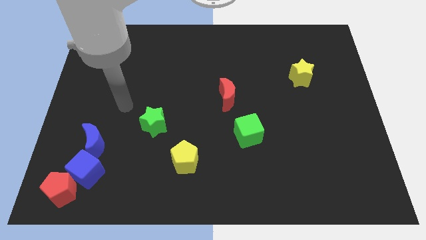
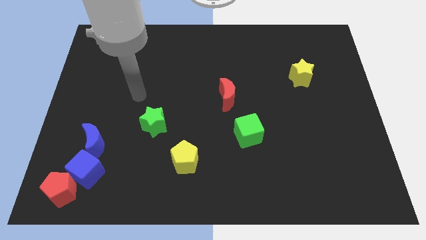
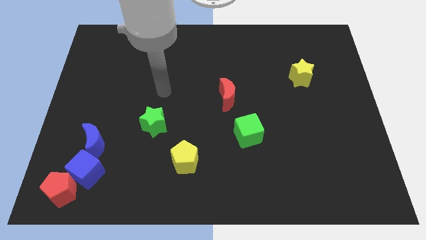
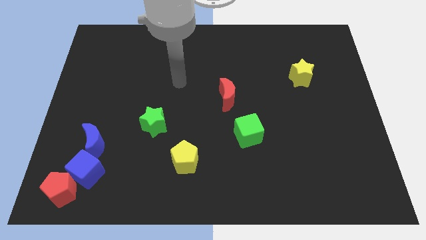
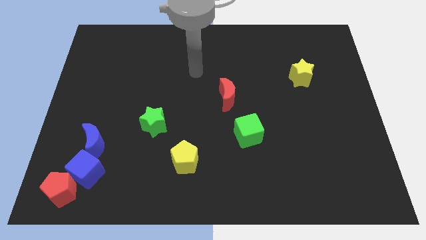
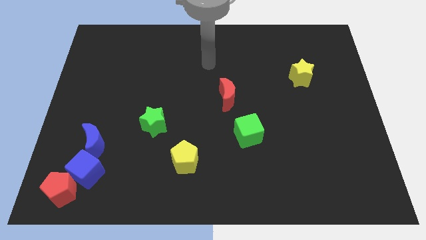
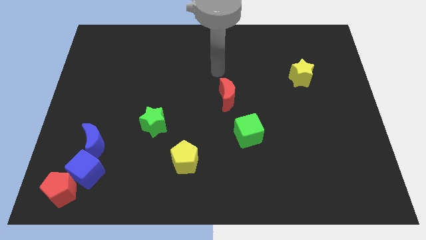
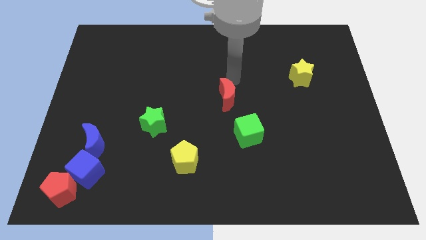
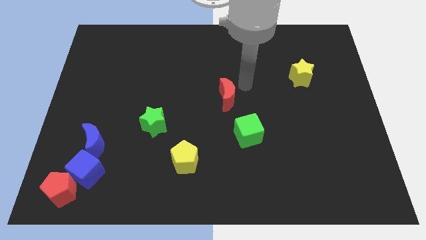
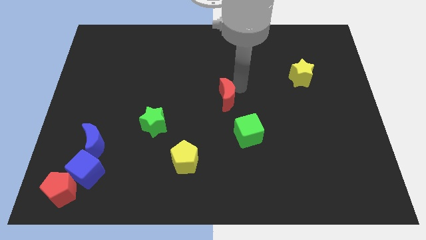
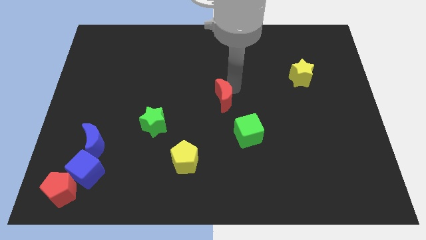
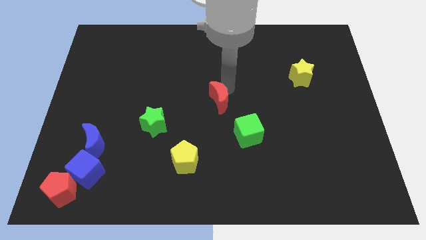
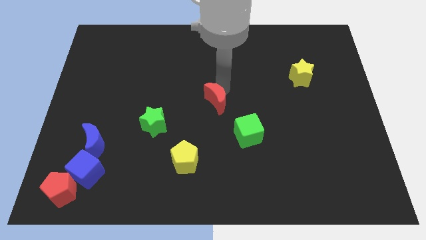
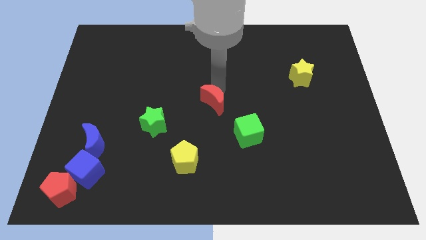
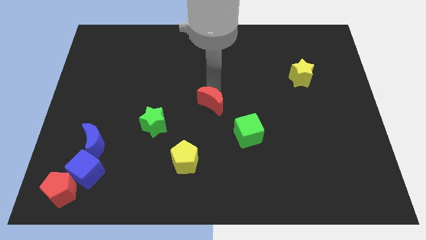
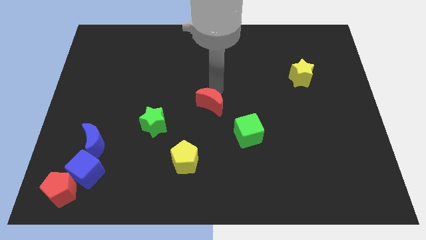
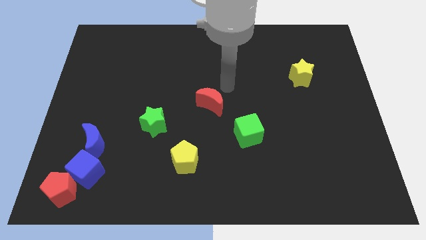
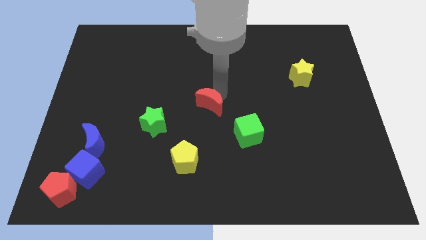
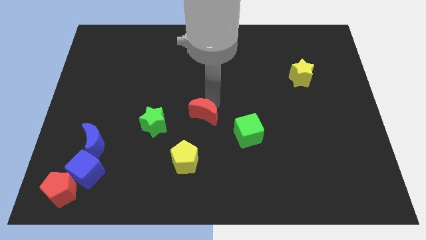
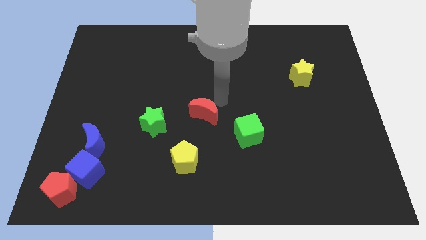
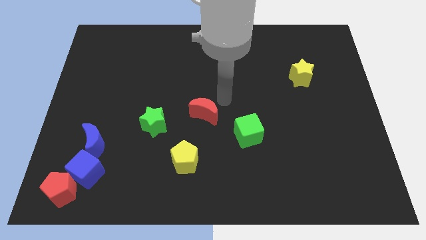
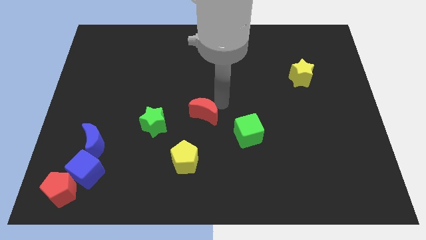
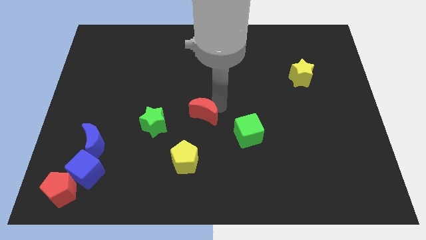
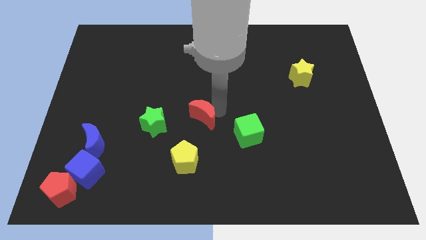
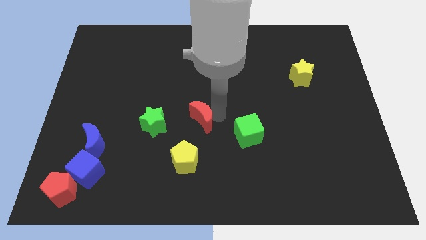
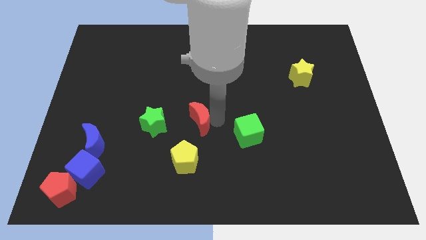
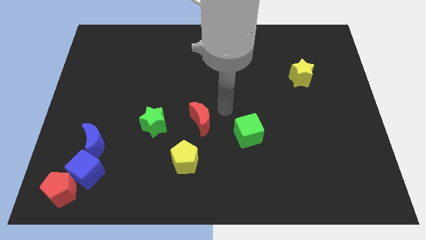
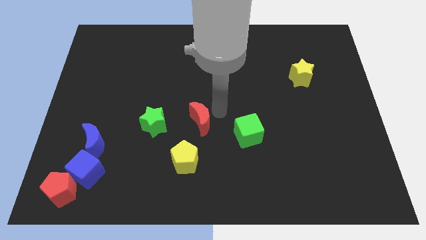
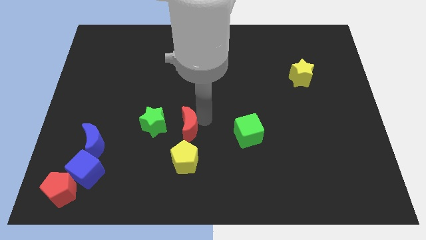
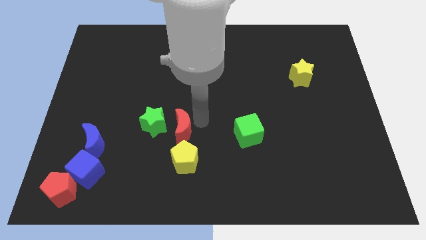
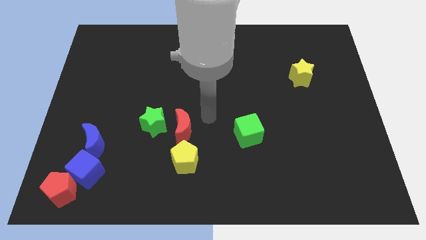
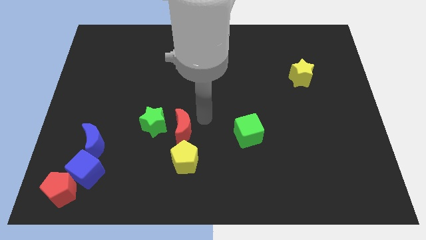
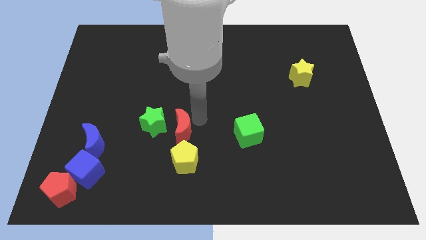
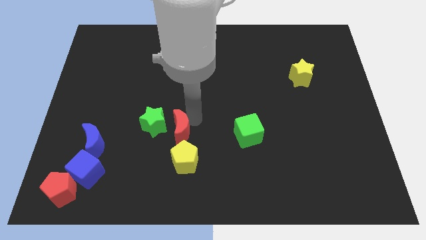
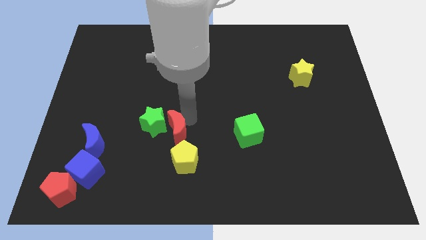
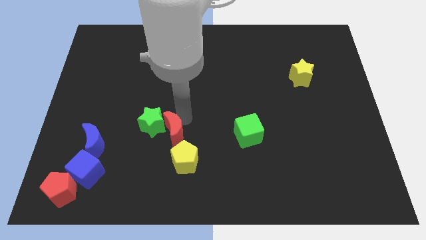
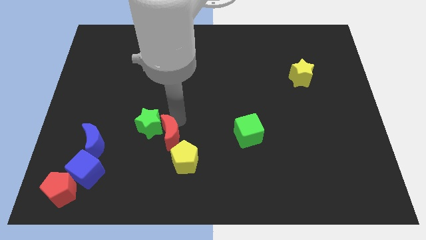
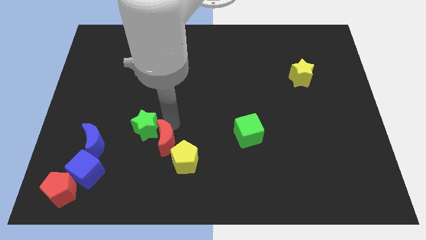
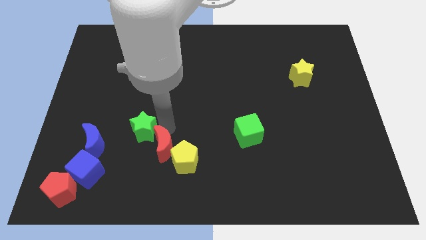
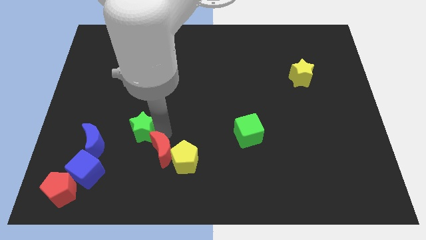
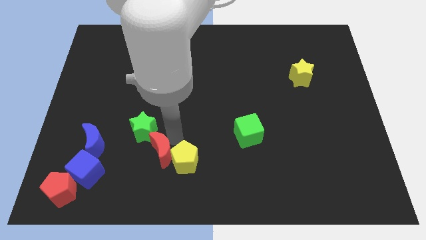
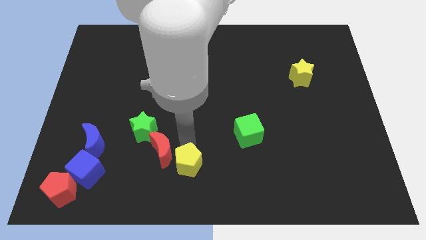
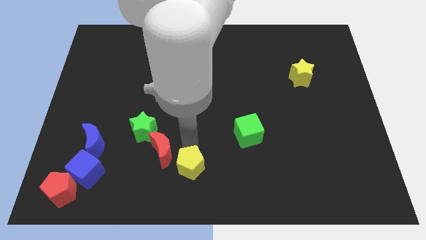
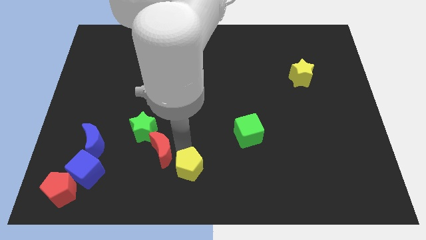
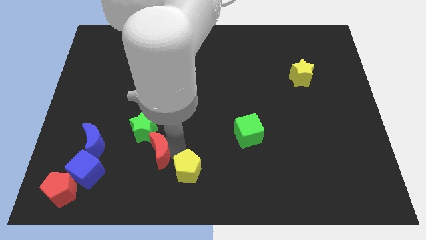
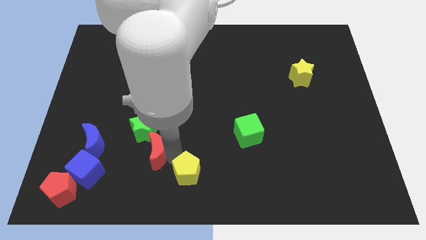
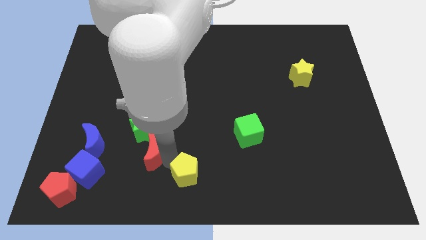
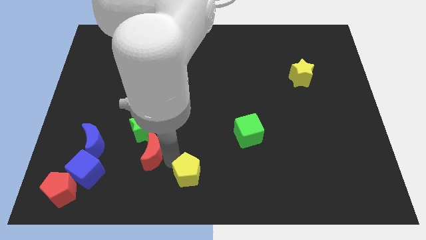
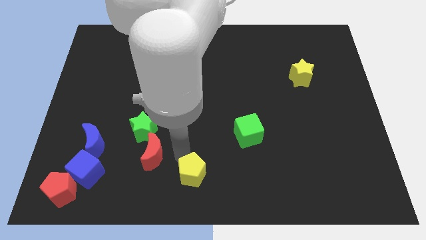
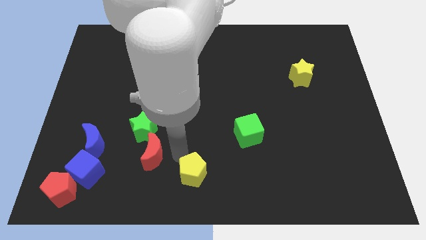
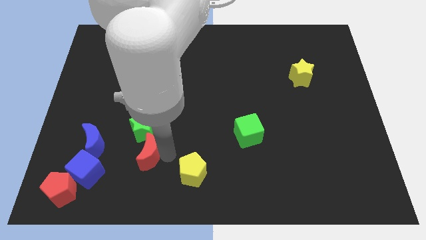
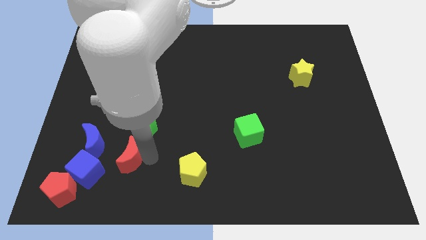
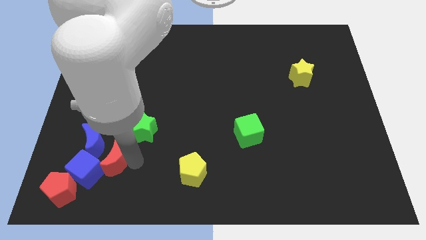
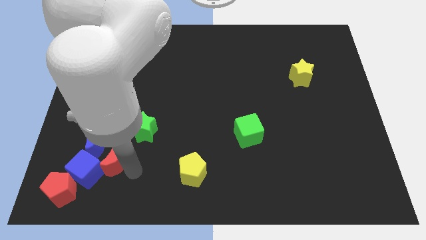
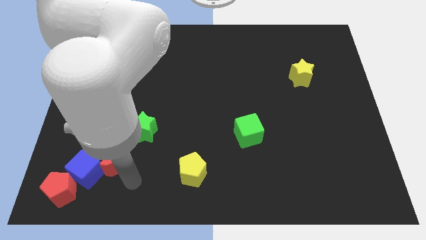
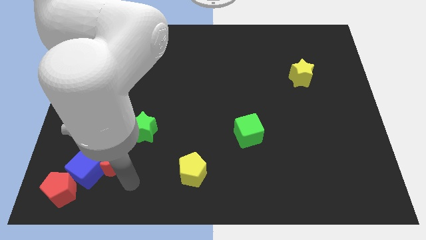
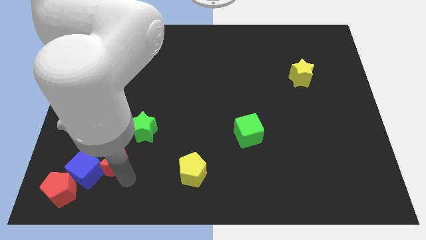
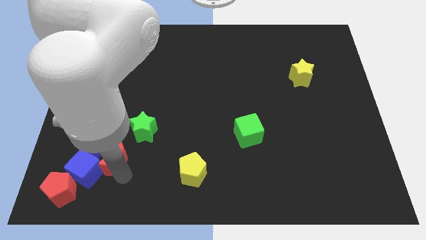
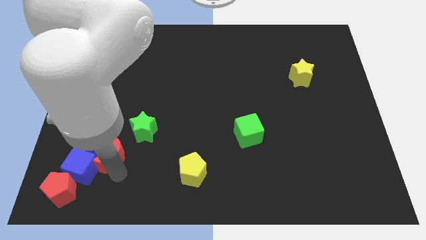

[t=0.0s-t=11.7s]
push the red moon close to the blue moon

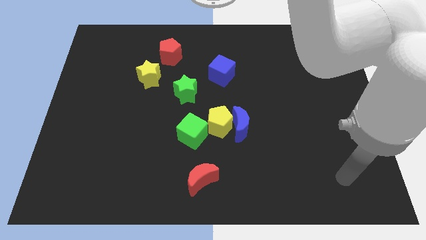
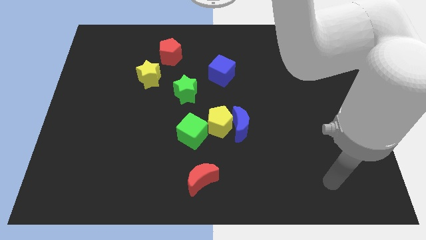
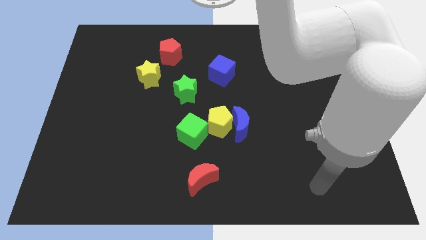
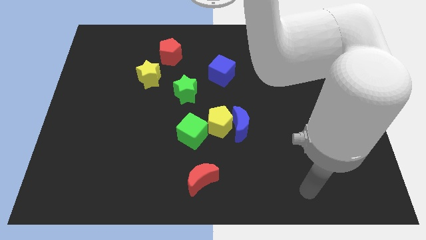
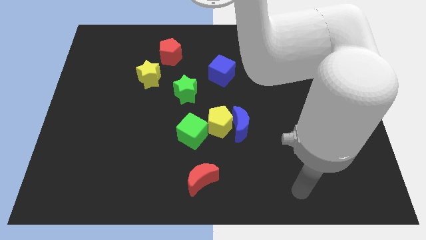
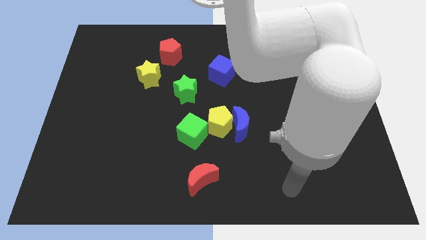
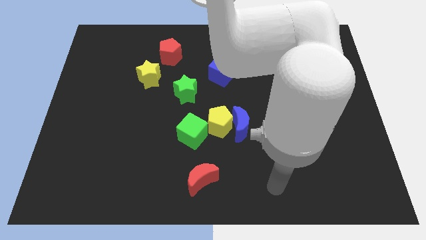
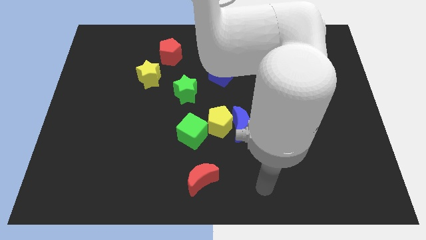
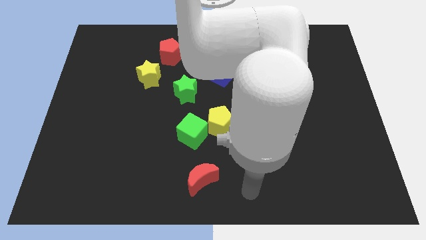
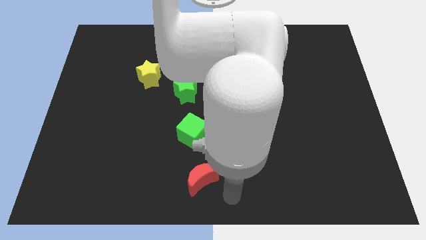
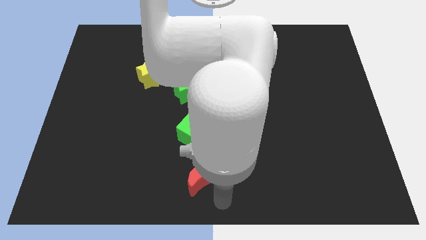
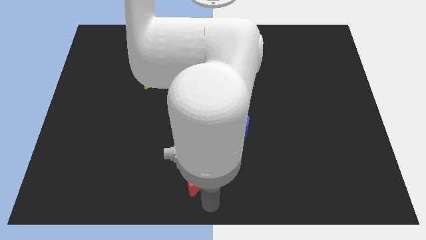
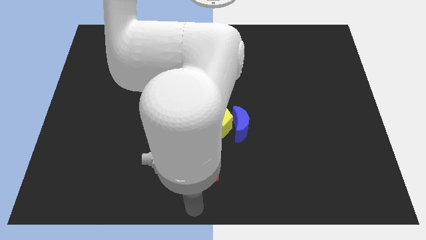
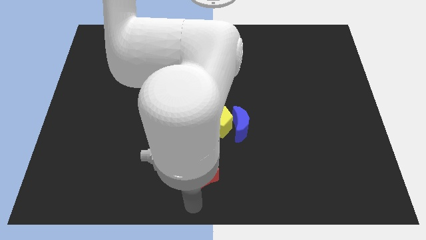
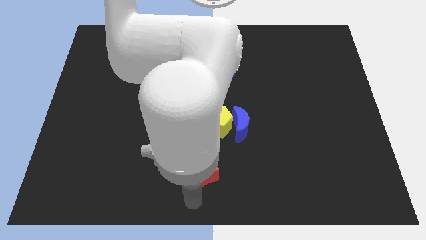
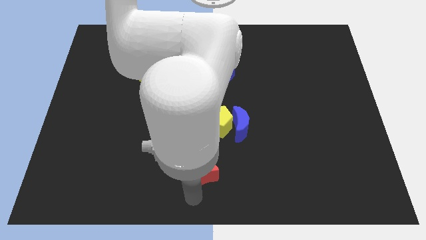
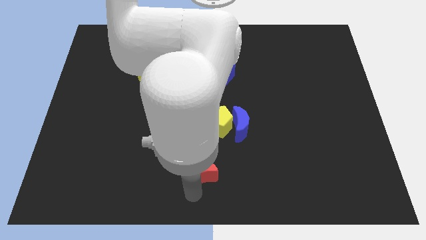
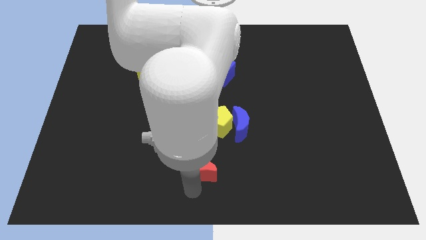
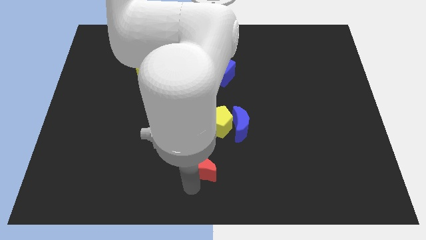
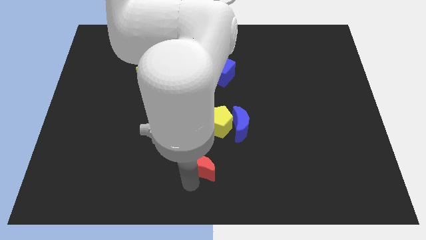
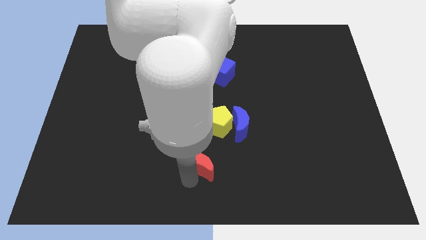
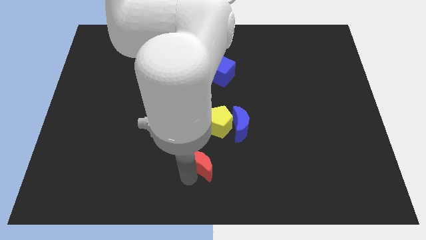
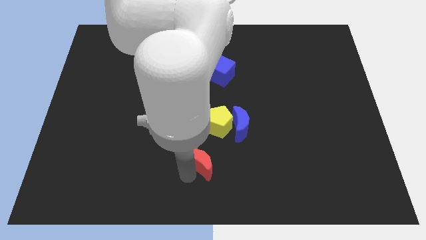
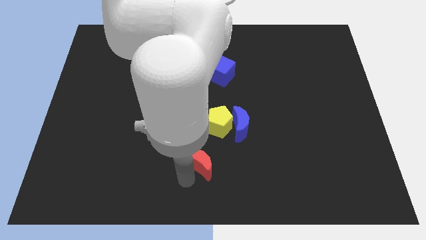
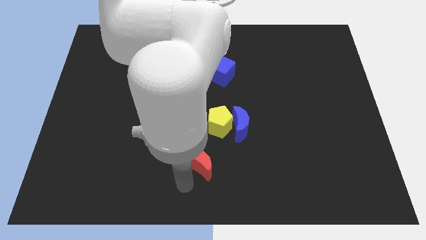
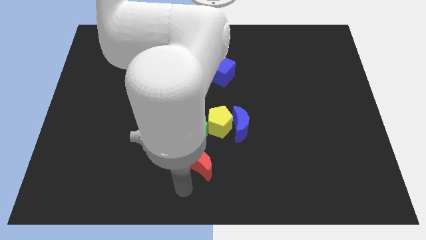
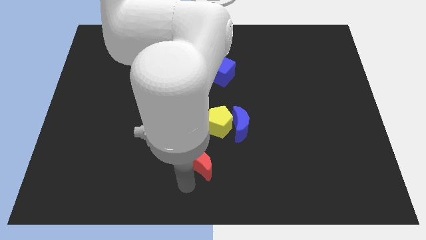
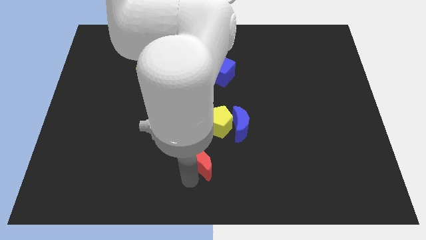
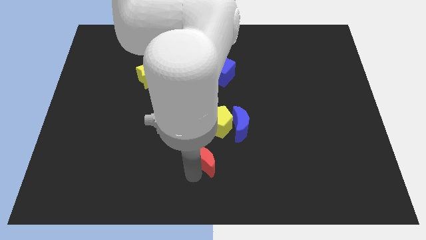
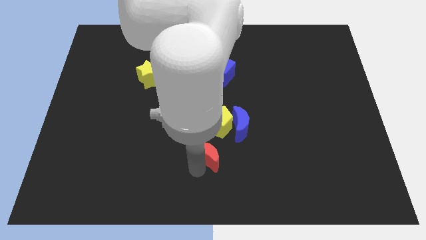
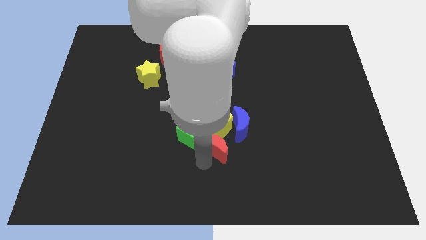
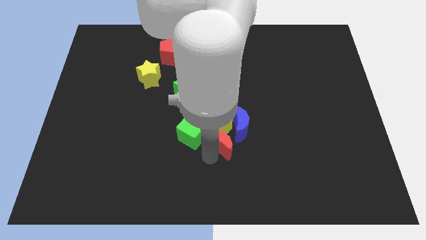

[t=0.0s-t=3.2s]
push the red moon next to the yellow pentagon
